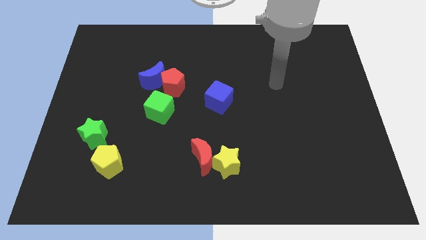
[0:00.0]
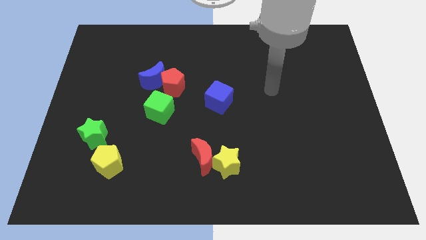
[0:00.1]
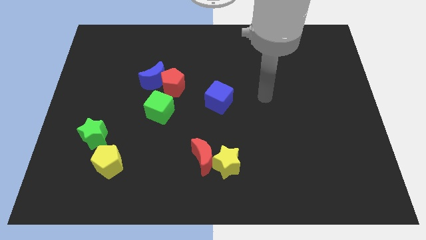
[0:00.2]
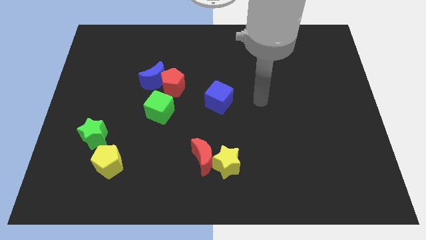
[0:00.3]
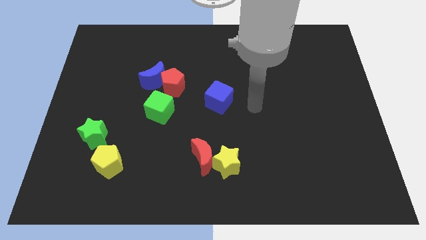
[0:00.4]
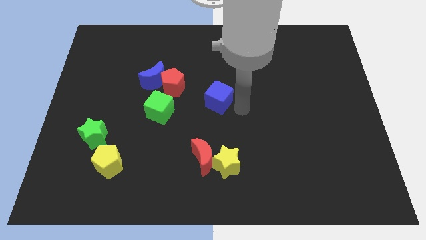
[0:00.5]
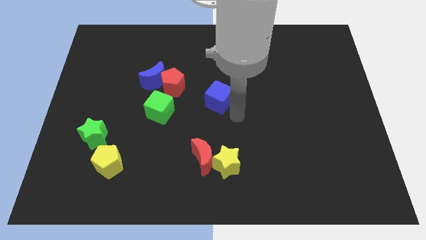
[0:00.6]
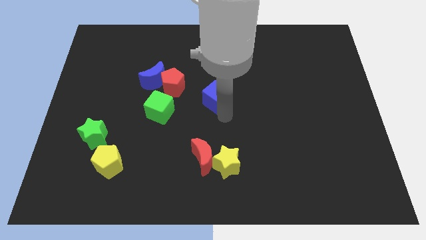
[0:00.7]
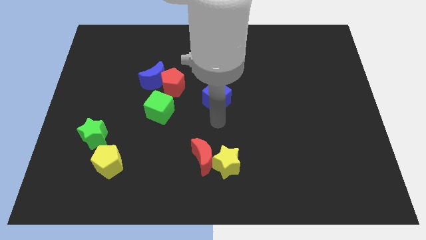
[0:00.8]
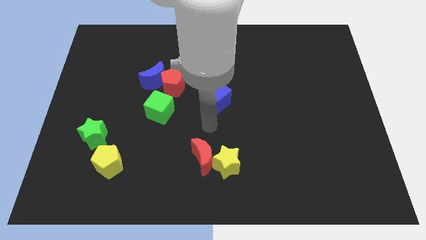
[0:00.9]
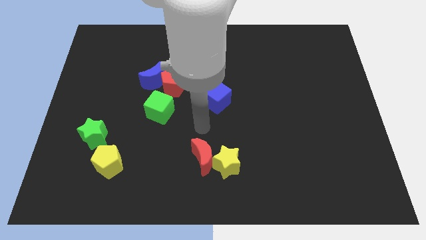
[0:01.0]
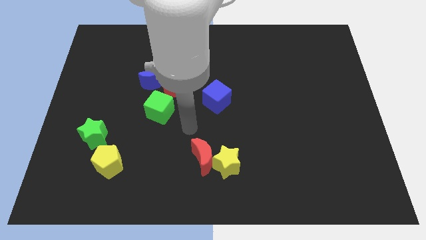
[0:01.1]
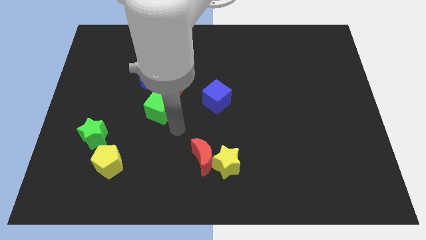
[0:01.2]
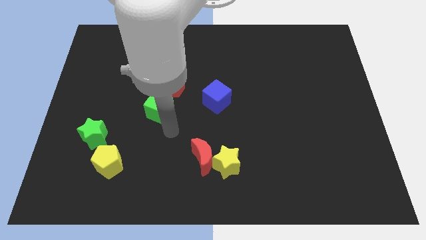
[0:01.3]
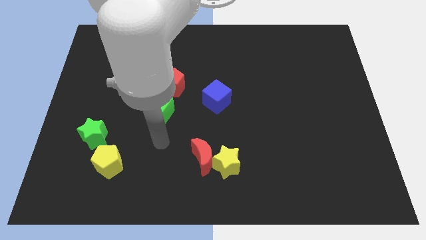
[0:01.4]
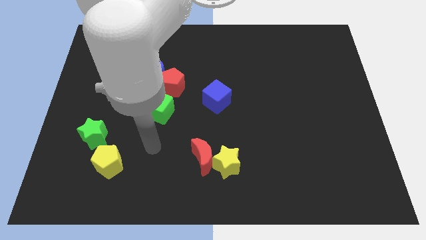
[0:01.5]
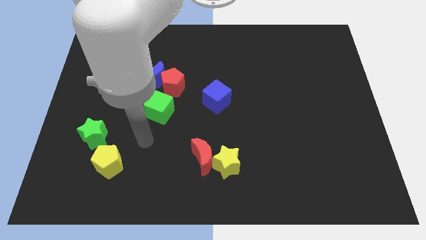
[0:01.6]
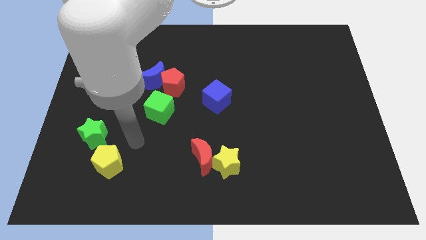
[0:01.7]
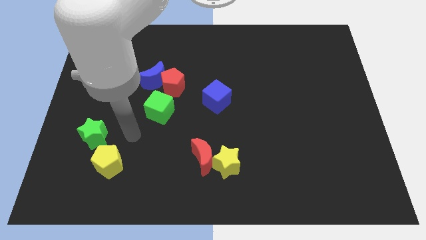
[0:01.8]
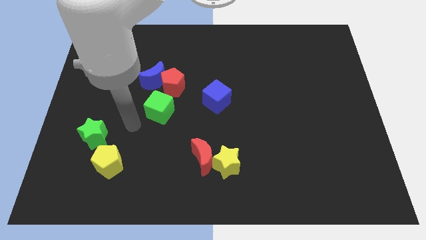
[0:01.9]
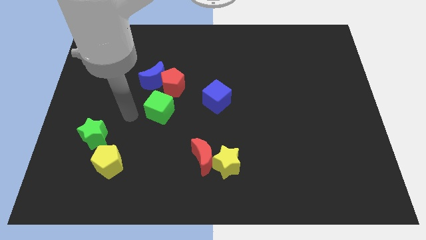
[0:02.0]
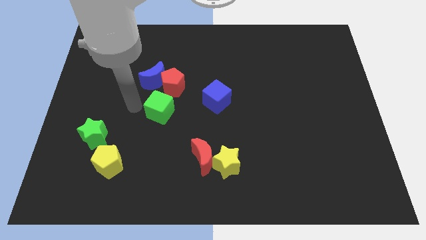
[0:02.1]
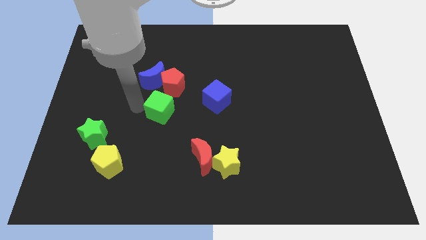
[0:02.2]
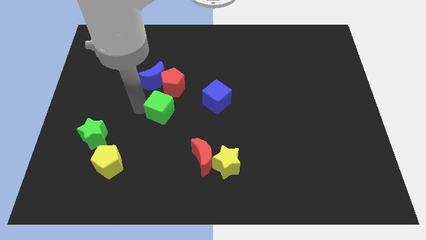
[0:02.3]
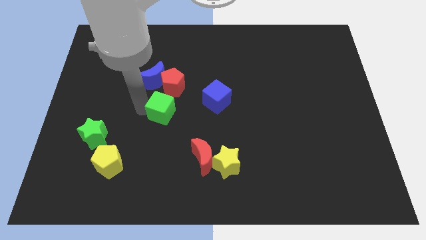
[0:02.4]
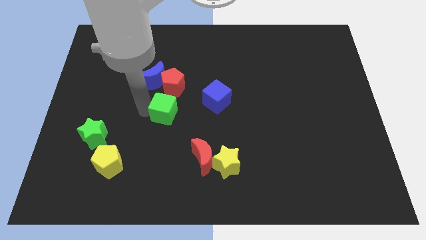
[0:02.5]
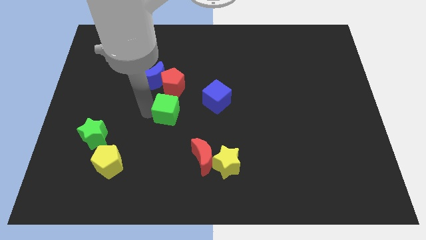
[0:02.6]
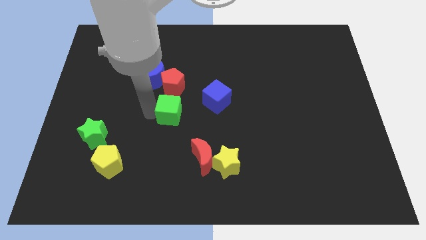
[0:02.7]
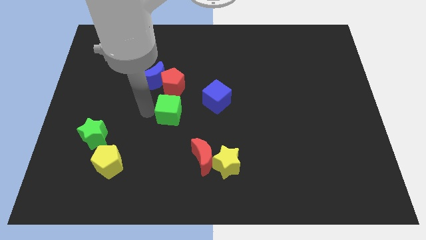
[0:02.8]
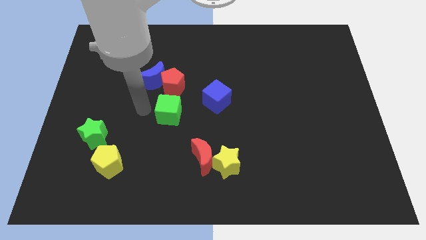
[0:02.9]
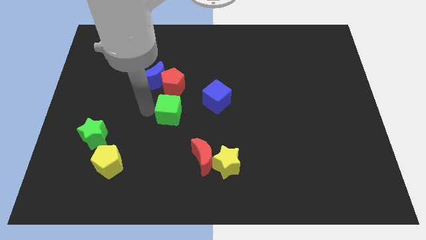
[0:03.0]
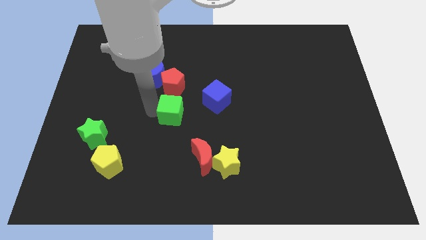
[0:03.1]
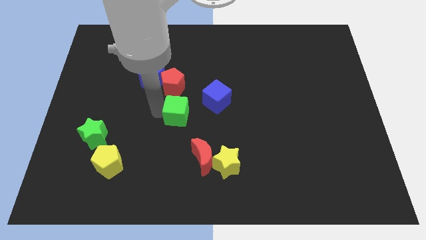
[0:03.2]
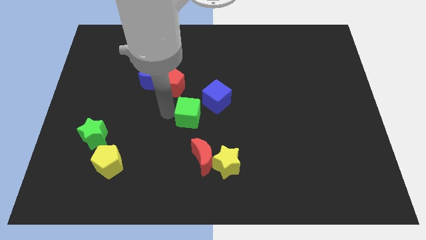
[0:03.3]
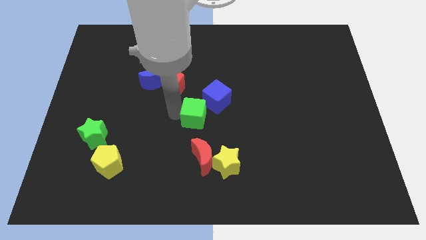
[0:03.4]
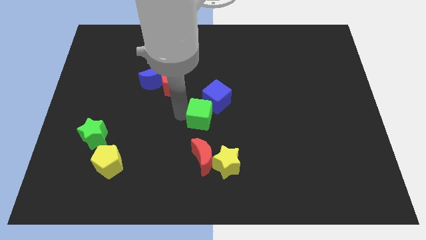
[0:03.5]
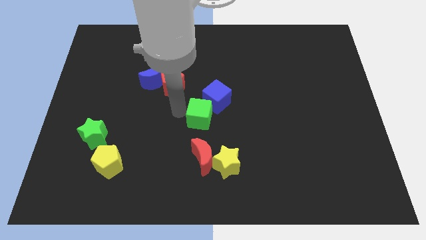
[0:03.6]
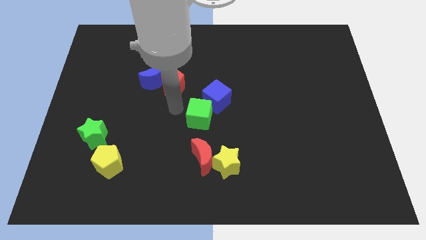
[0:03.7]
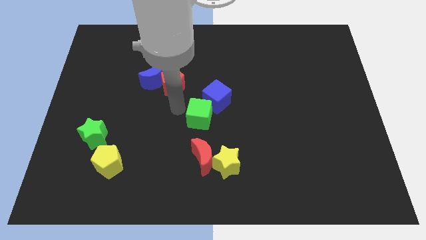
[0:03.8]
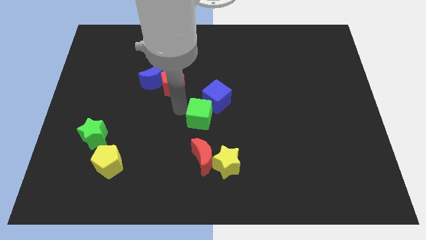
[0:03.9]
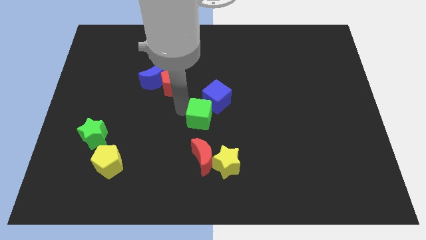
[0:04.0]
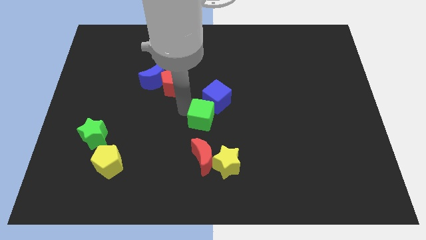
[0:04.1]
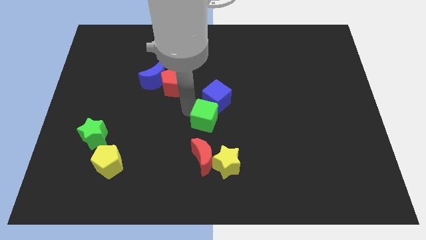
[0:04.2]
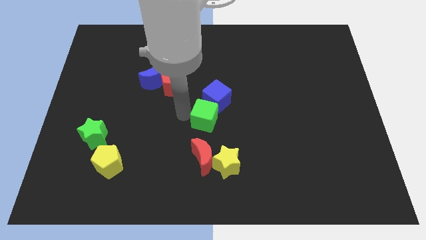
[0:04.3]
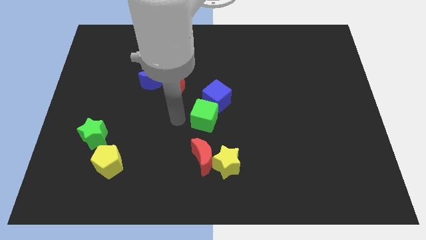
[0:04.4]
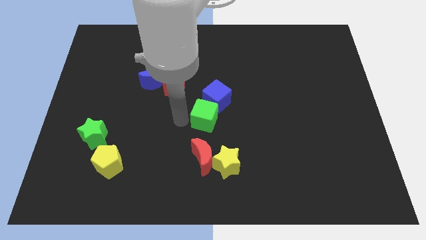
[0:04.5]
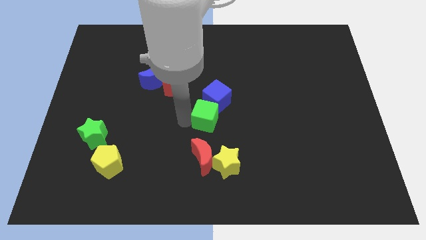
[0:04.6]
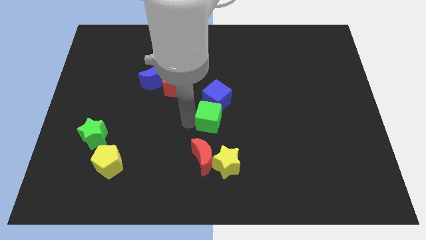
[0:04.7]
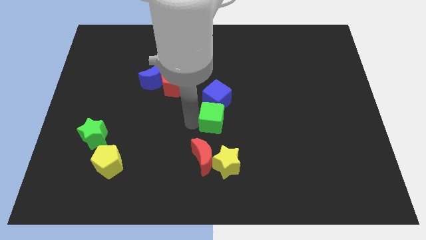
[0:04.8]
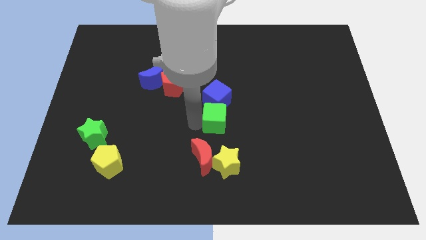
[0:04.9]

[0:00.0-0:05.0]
move the green cube diagonally down and to the right of the blue cube

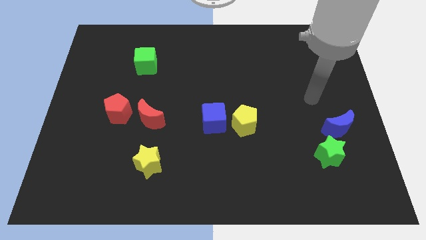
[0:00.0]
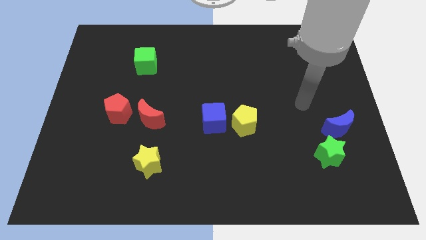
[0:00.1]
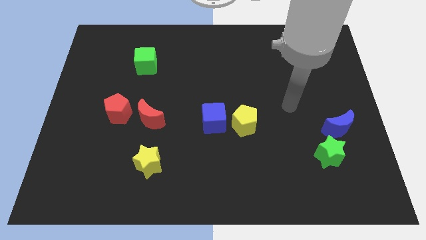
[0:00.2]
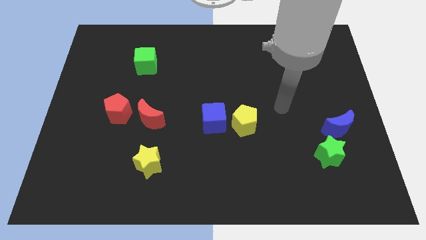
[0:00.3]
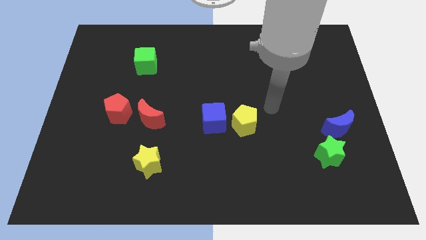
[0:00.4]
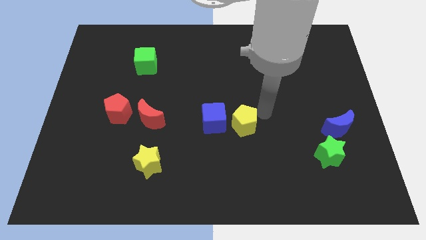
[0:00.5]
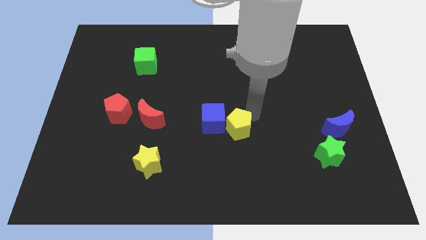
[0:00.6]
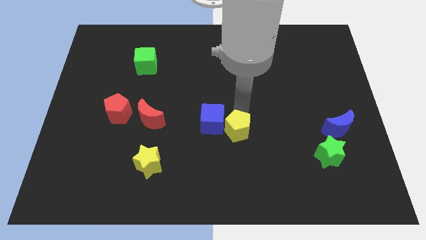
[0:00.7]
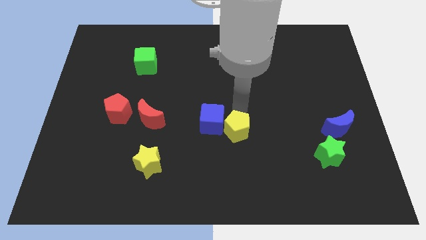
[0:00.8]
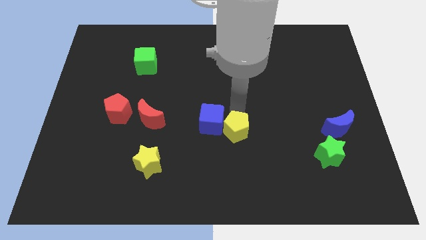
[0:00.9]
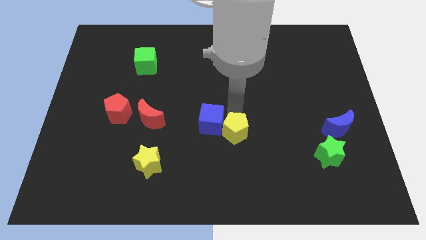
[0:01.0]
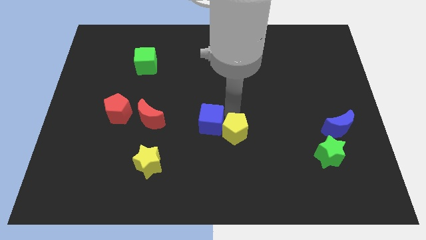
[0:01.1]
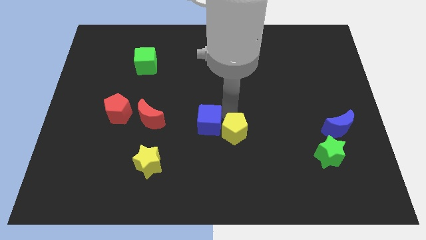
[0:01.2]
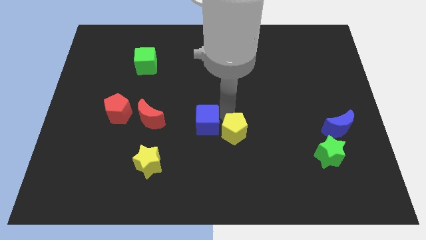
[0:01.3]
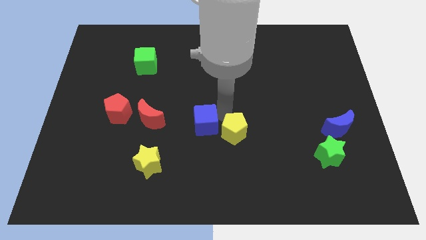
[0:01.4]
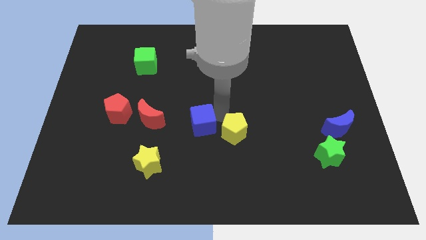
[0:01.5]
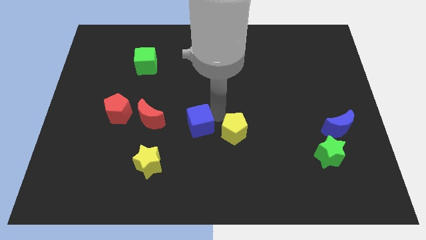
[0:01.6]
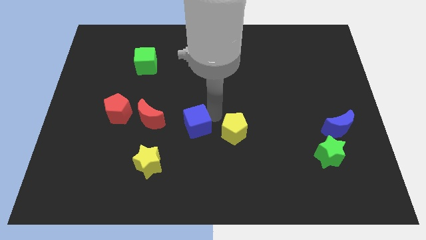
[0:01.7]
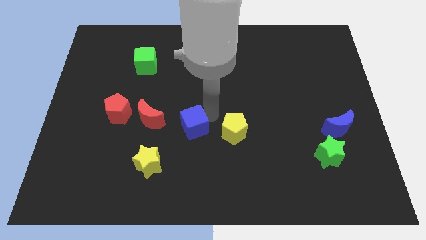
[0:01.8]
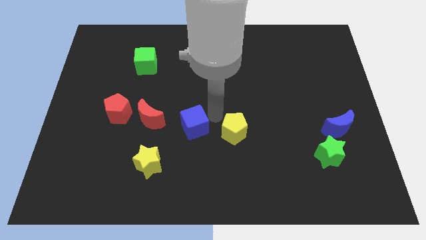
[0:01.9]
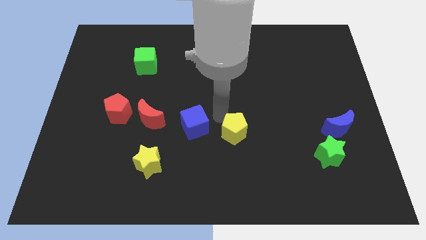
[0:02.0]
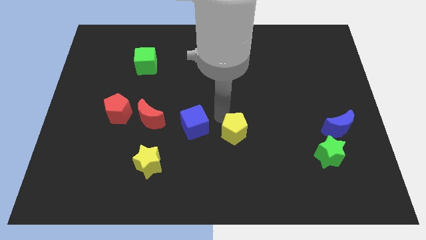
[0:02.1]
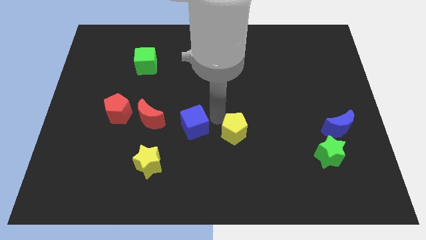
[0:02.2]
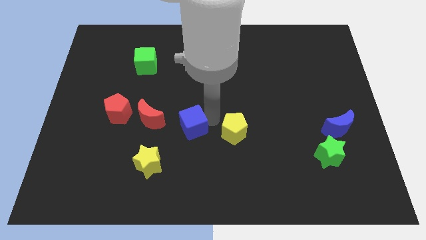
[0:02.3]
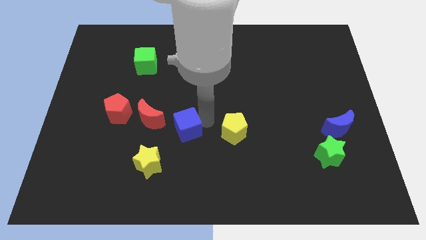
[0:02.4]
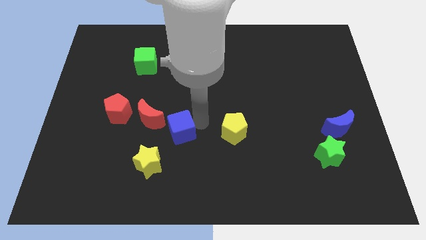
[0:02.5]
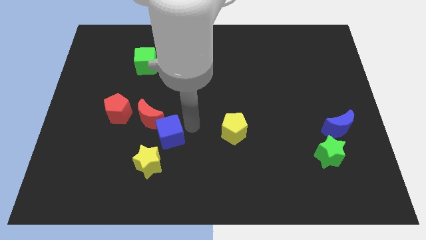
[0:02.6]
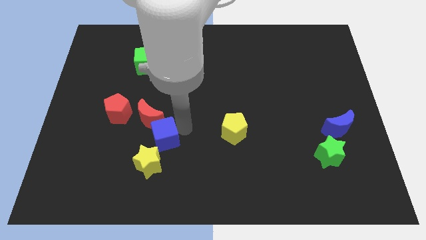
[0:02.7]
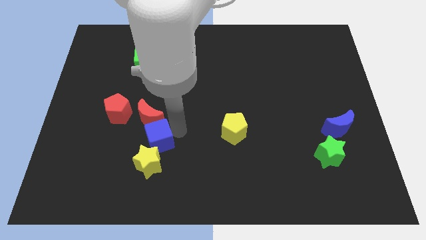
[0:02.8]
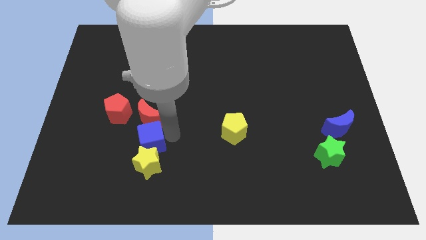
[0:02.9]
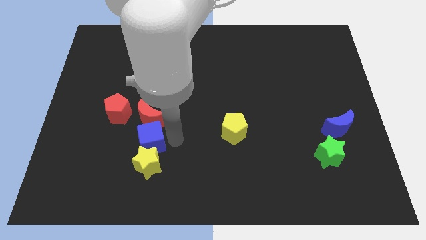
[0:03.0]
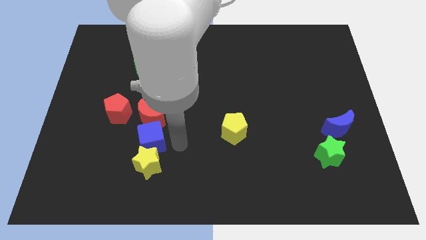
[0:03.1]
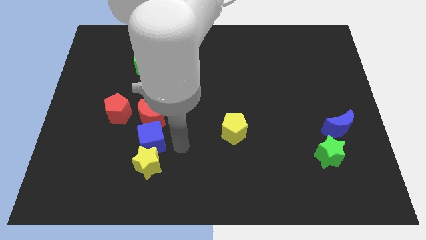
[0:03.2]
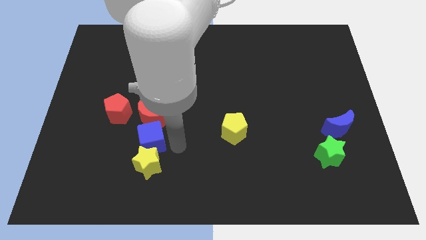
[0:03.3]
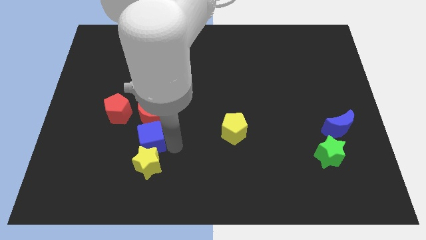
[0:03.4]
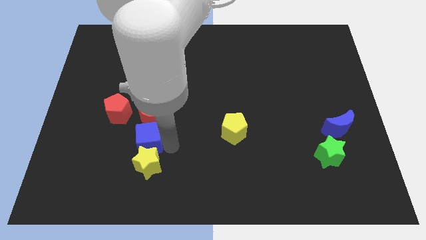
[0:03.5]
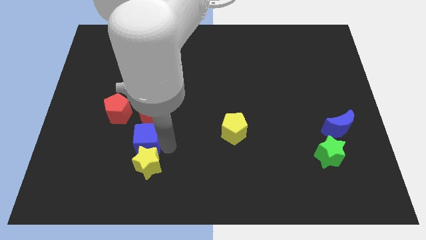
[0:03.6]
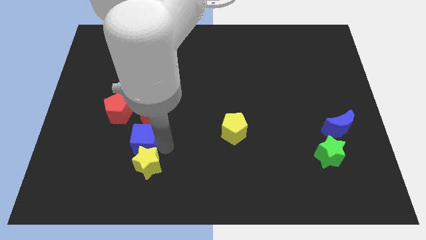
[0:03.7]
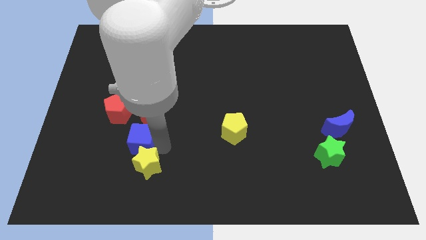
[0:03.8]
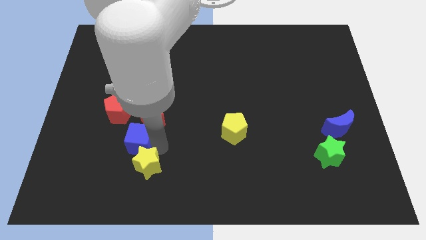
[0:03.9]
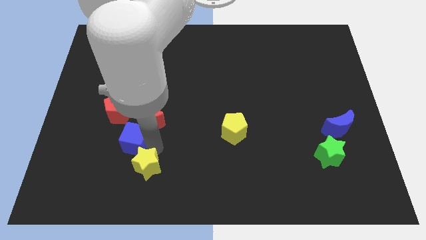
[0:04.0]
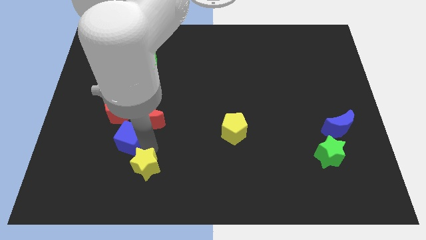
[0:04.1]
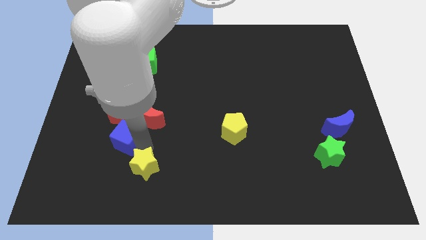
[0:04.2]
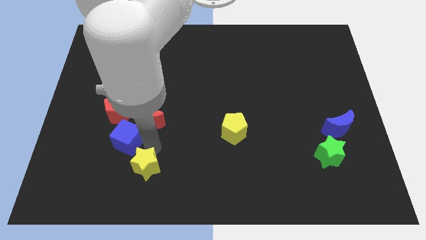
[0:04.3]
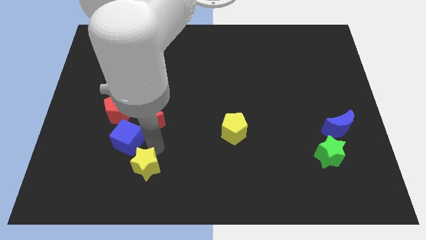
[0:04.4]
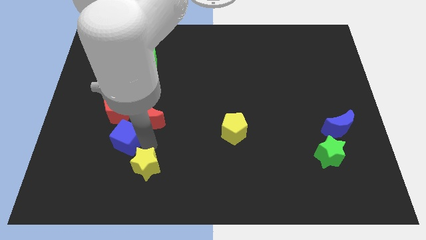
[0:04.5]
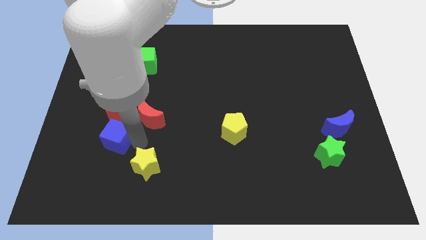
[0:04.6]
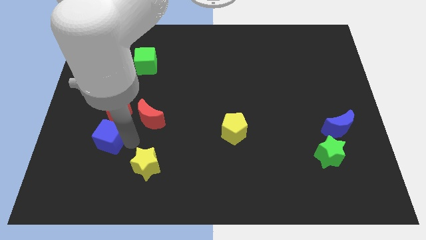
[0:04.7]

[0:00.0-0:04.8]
put the blue cube to the bottom left of the red pentagon
